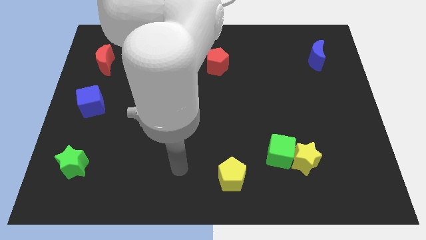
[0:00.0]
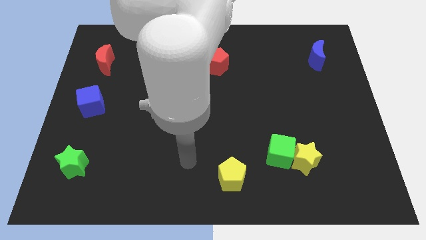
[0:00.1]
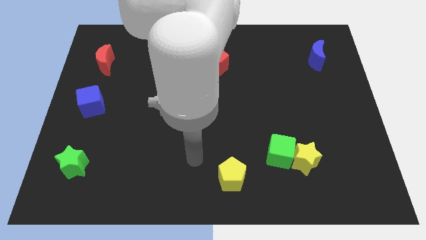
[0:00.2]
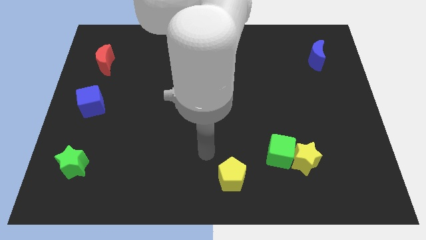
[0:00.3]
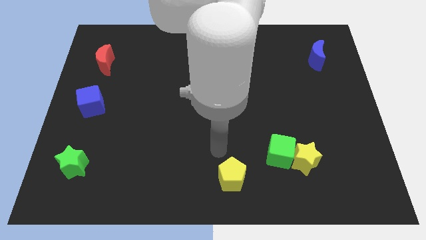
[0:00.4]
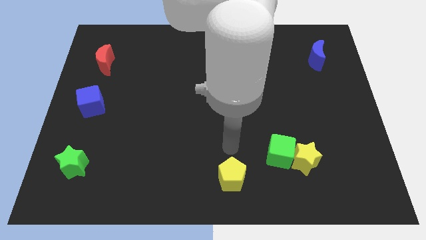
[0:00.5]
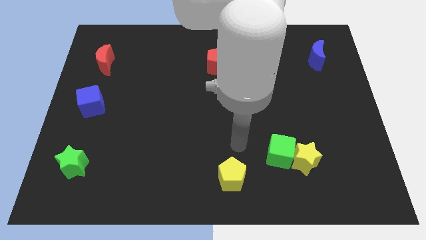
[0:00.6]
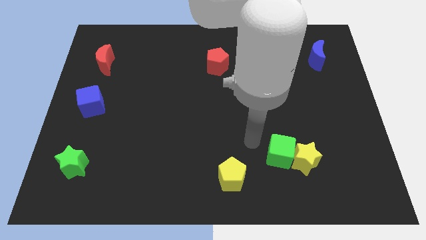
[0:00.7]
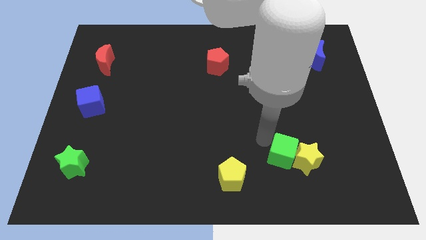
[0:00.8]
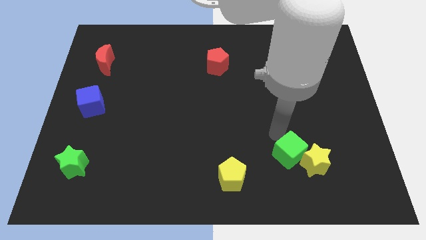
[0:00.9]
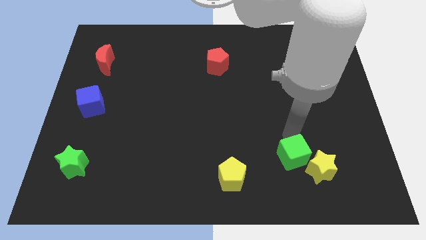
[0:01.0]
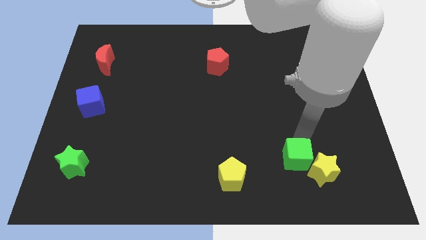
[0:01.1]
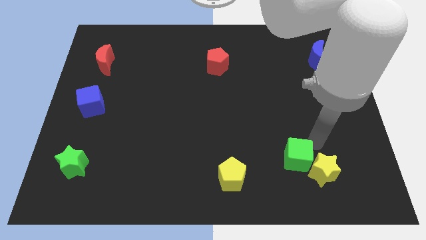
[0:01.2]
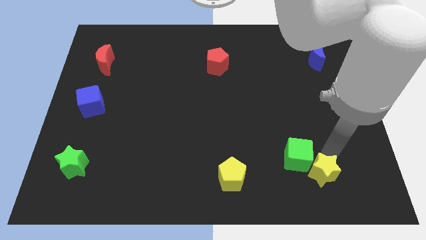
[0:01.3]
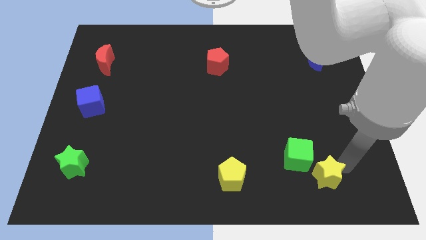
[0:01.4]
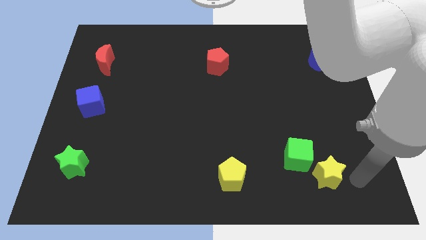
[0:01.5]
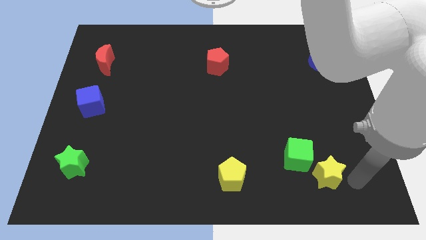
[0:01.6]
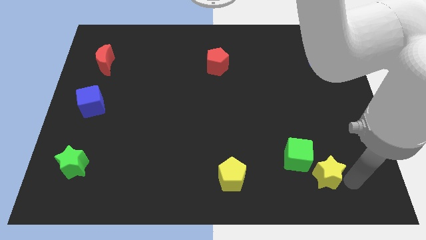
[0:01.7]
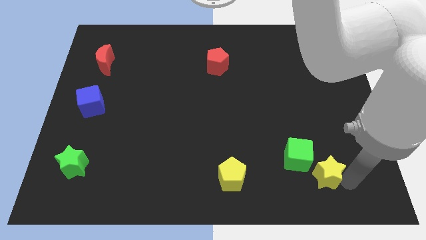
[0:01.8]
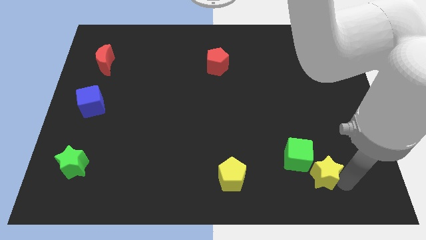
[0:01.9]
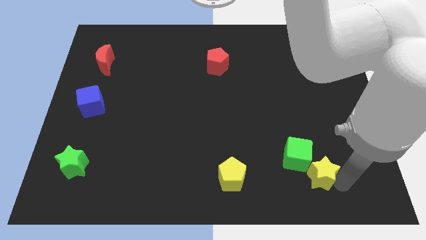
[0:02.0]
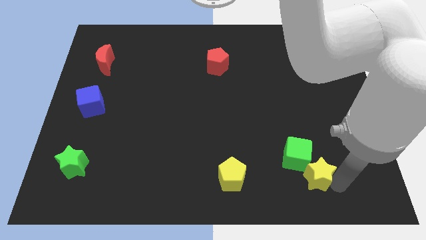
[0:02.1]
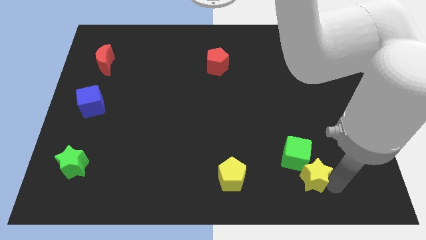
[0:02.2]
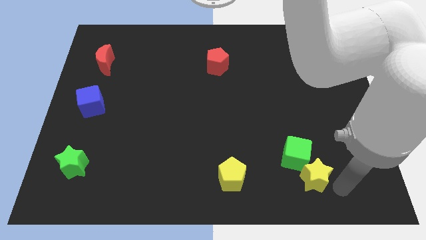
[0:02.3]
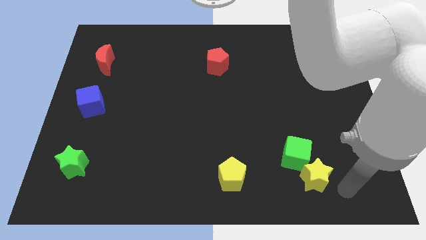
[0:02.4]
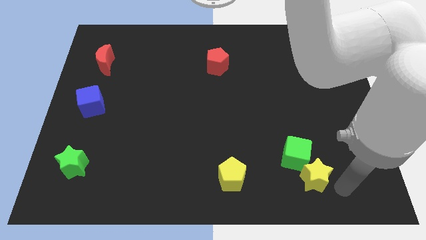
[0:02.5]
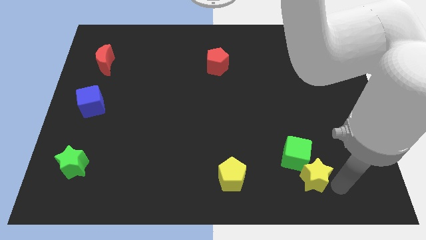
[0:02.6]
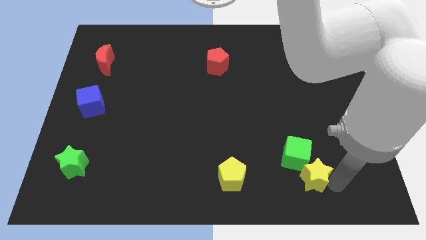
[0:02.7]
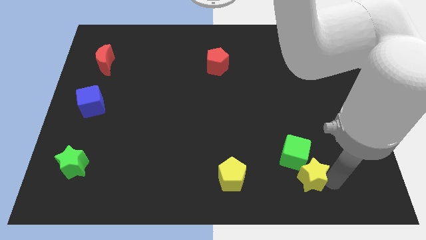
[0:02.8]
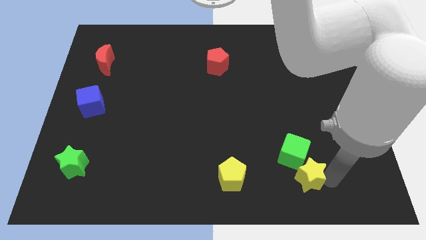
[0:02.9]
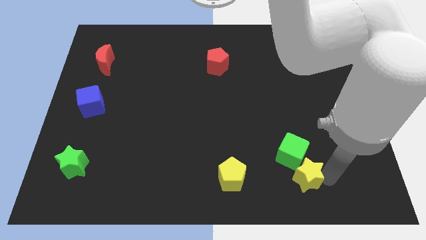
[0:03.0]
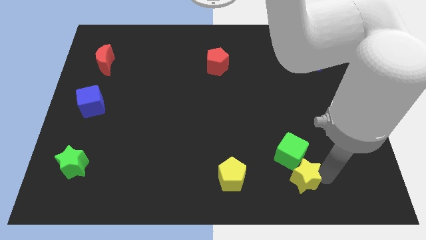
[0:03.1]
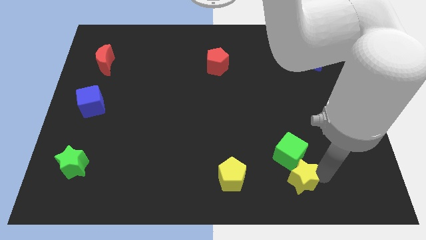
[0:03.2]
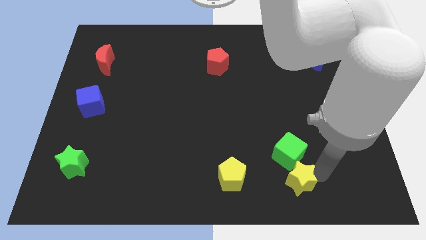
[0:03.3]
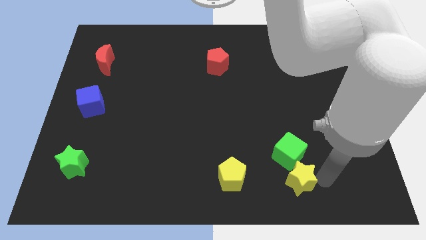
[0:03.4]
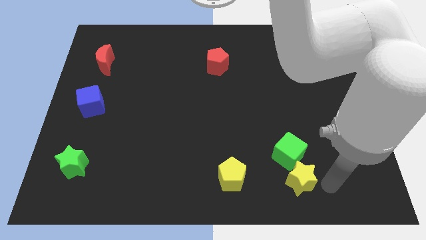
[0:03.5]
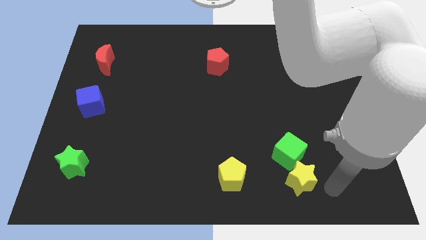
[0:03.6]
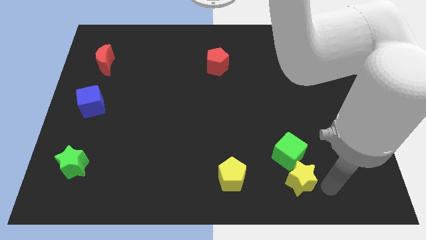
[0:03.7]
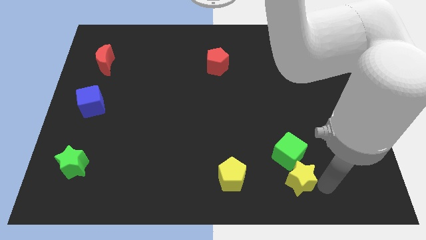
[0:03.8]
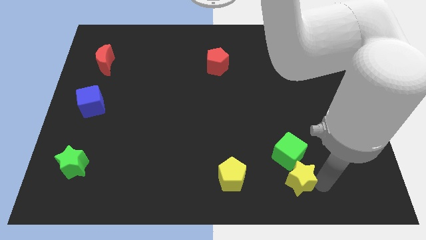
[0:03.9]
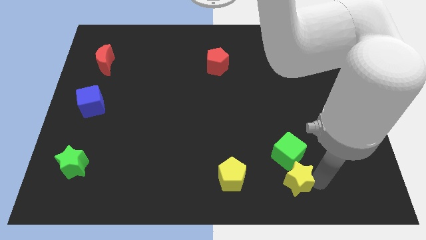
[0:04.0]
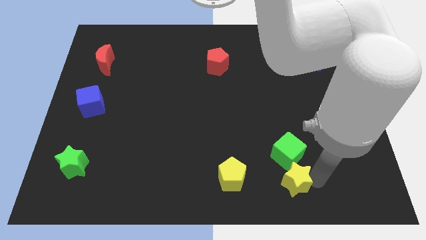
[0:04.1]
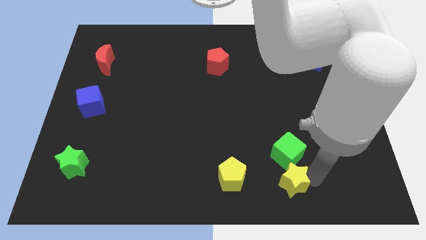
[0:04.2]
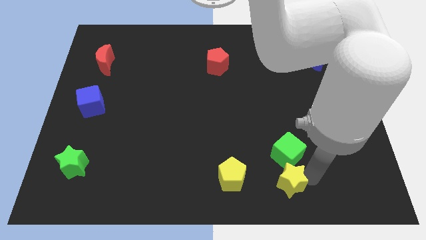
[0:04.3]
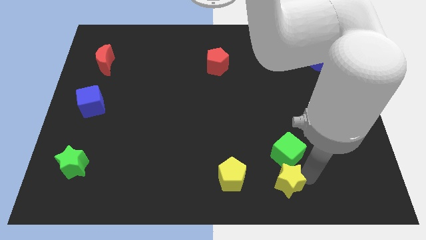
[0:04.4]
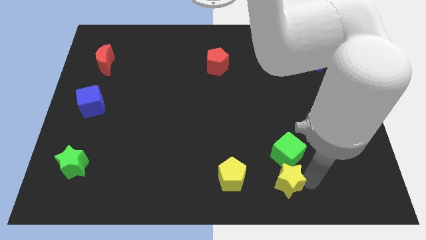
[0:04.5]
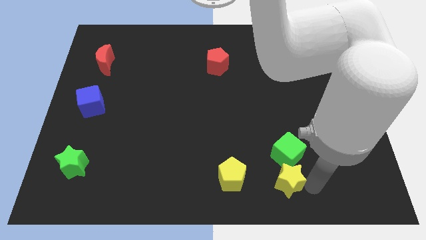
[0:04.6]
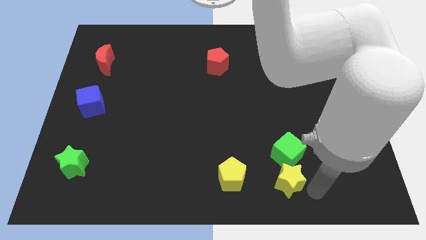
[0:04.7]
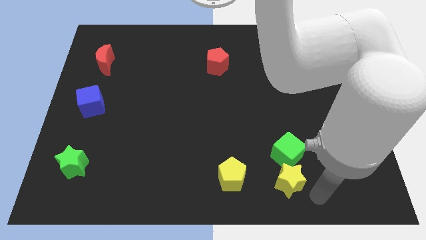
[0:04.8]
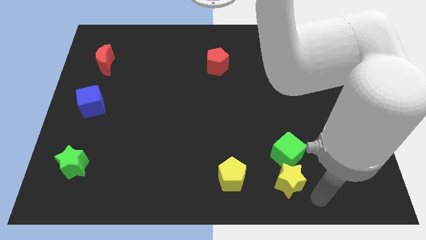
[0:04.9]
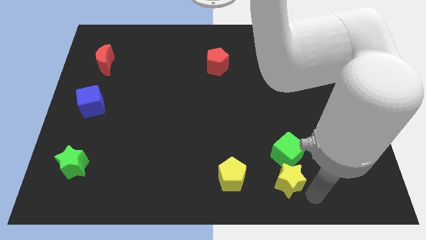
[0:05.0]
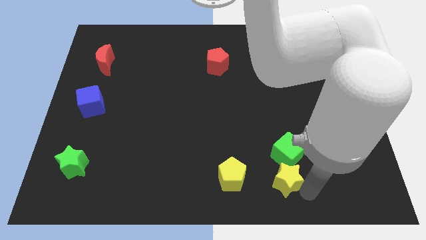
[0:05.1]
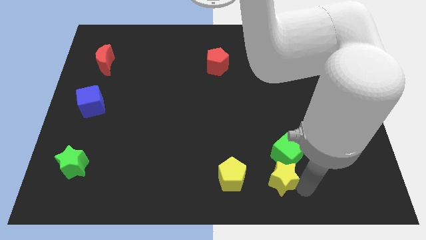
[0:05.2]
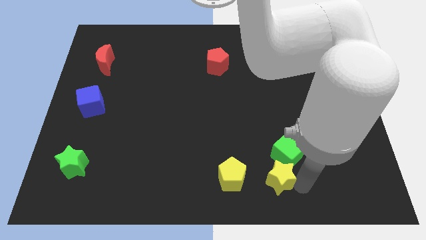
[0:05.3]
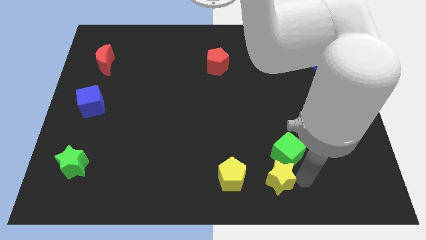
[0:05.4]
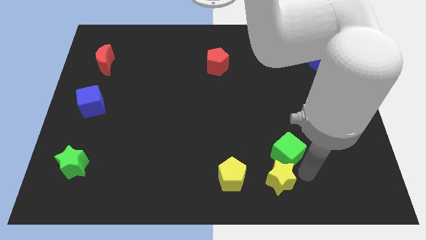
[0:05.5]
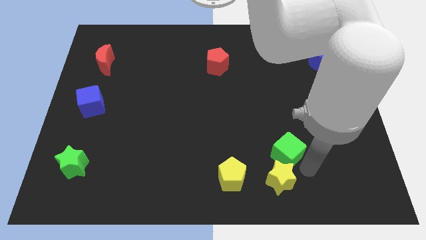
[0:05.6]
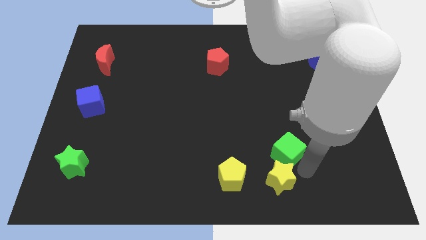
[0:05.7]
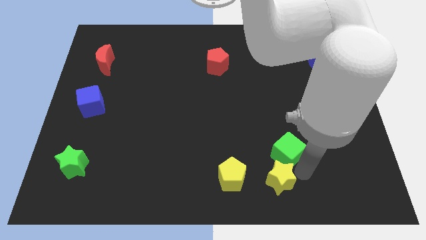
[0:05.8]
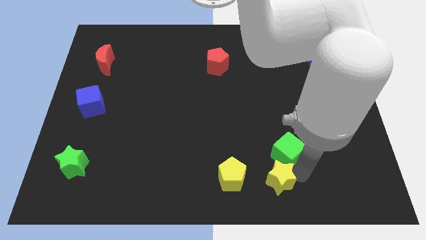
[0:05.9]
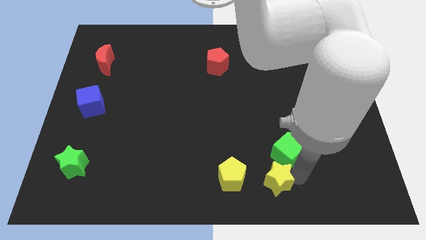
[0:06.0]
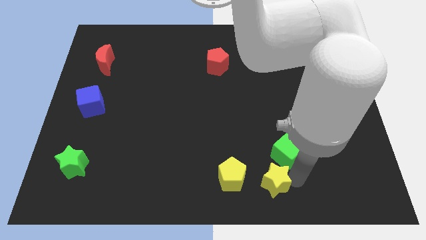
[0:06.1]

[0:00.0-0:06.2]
push the yellow star to the bottom side

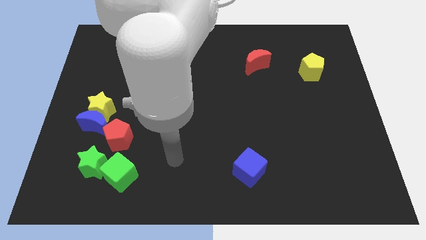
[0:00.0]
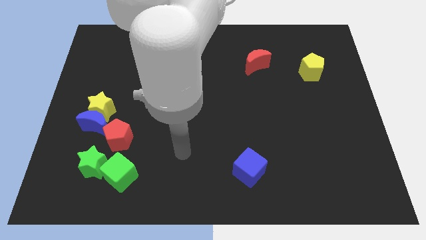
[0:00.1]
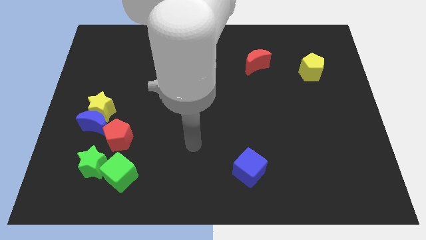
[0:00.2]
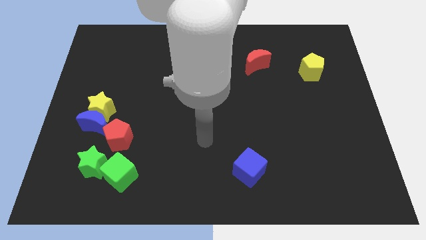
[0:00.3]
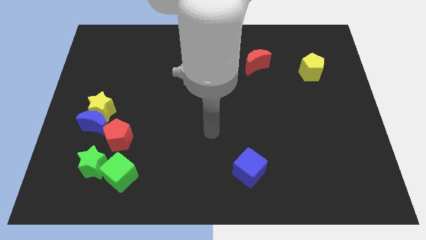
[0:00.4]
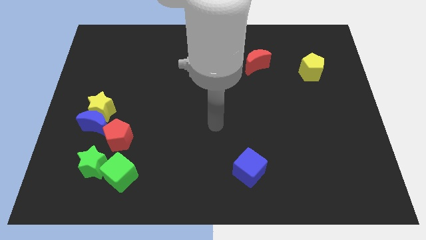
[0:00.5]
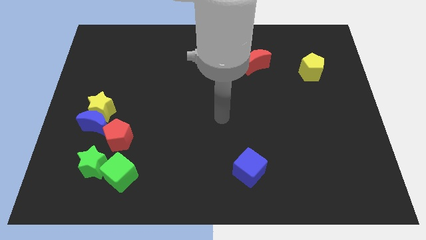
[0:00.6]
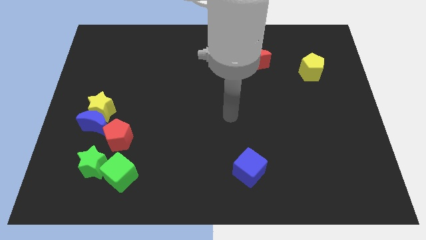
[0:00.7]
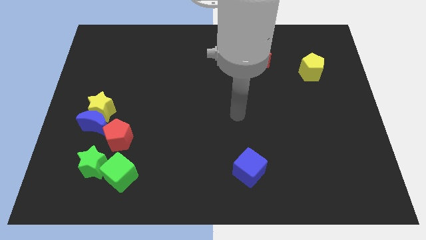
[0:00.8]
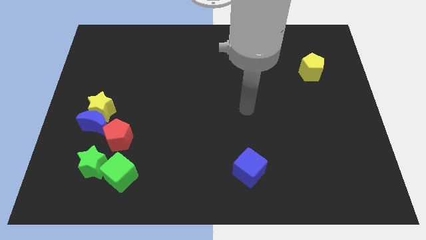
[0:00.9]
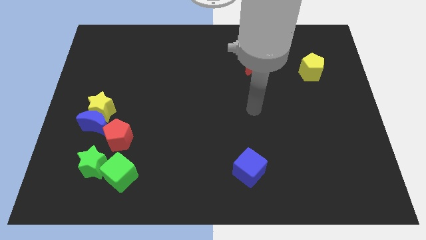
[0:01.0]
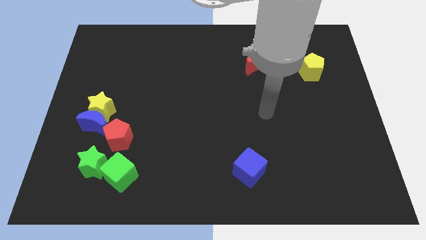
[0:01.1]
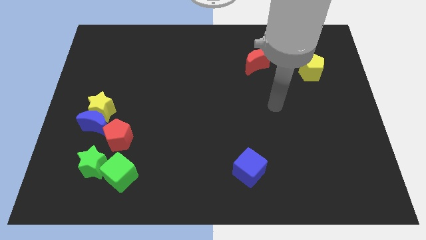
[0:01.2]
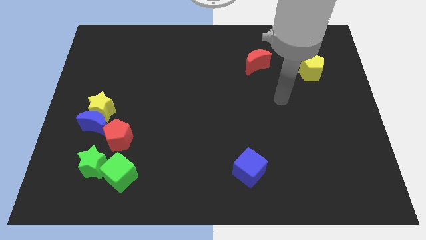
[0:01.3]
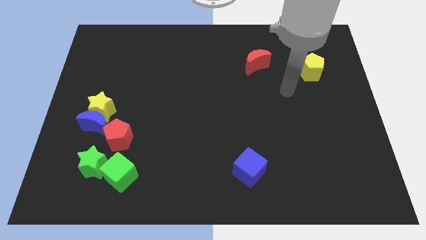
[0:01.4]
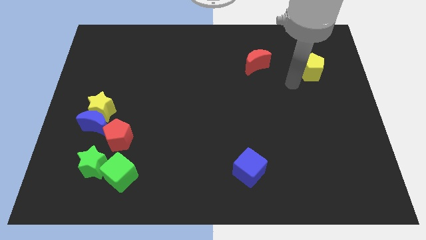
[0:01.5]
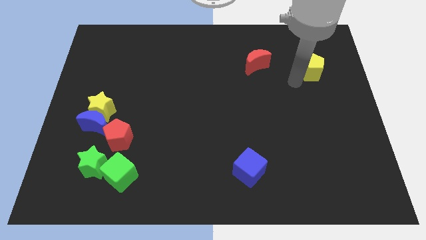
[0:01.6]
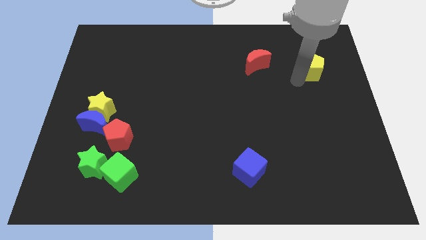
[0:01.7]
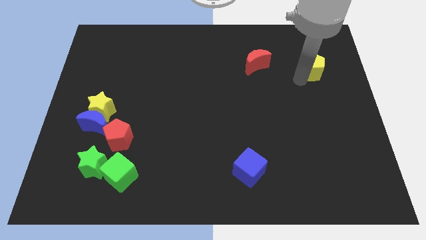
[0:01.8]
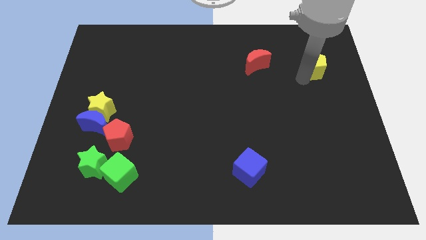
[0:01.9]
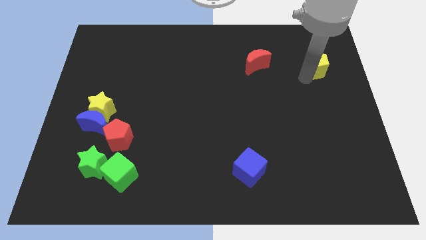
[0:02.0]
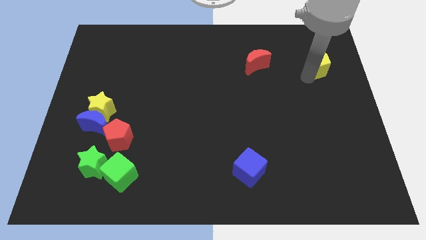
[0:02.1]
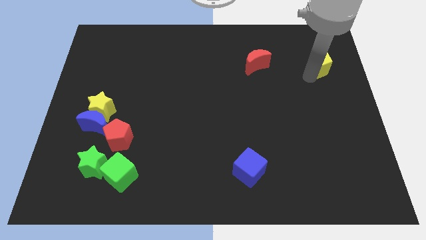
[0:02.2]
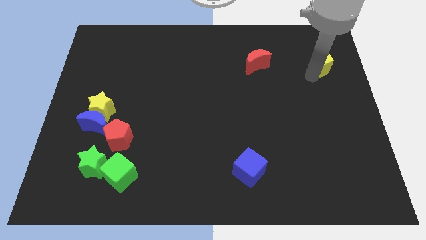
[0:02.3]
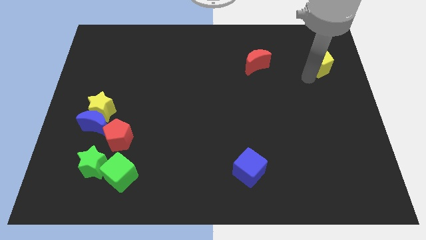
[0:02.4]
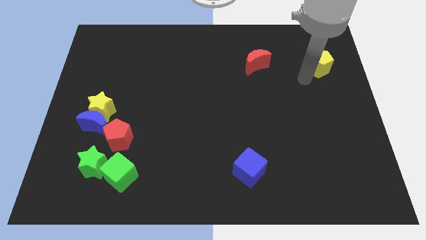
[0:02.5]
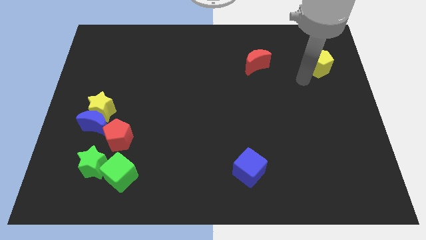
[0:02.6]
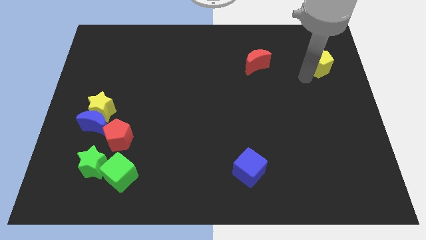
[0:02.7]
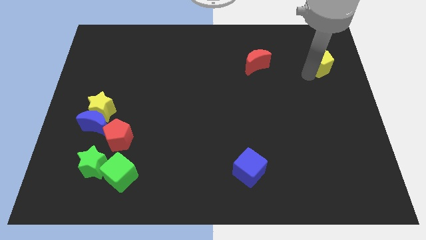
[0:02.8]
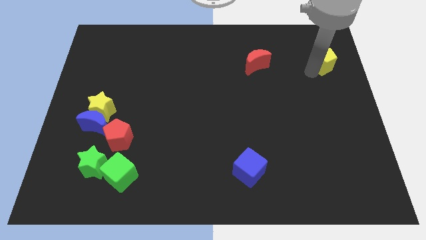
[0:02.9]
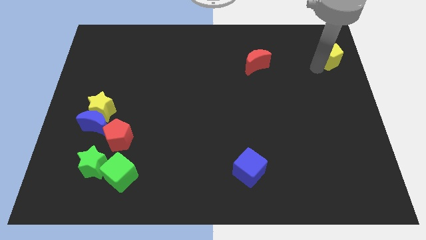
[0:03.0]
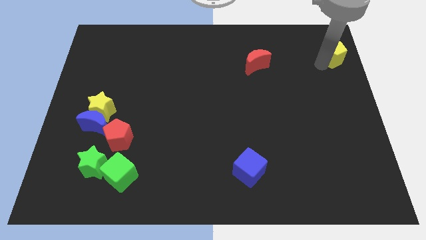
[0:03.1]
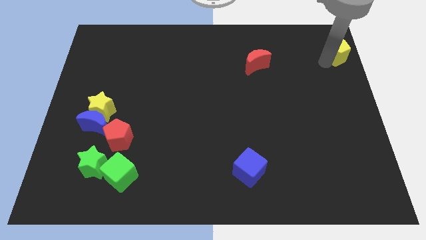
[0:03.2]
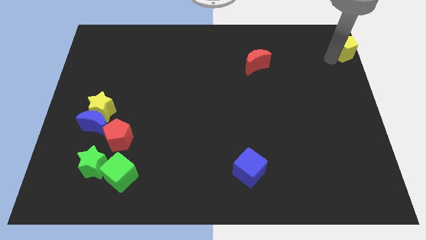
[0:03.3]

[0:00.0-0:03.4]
slide the yellow pentagon to the upper right corner
